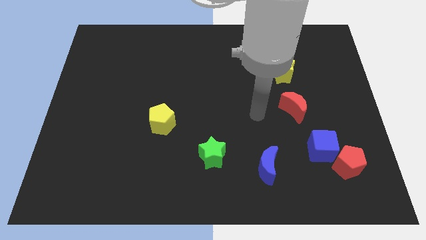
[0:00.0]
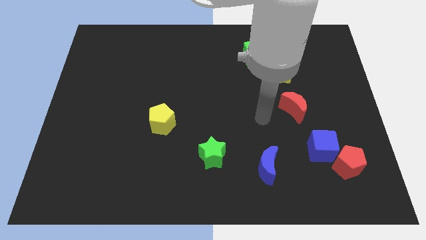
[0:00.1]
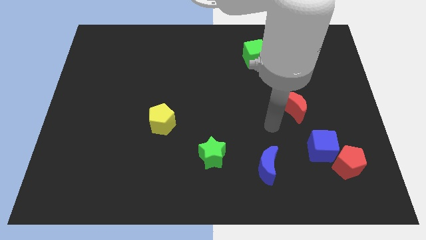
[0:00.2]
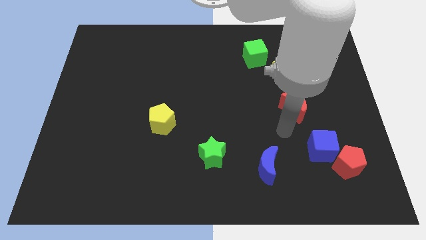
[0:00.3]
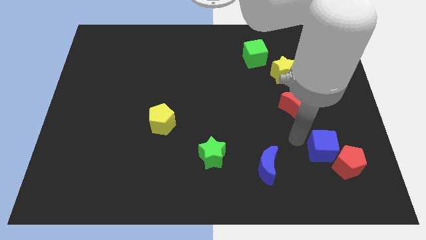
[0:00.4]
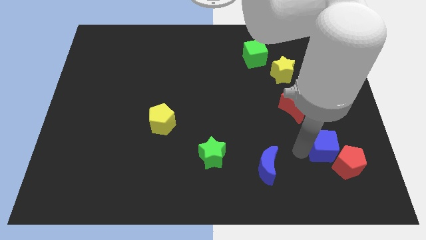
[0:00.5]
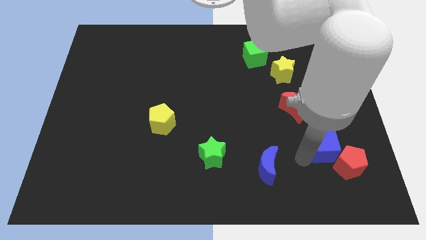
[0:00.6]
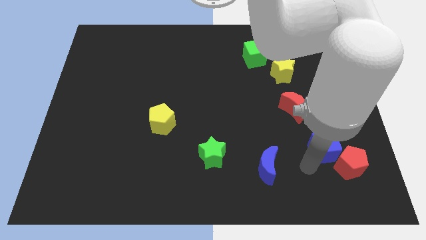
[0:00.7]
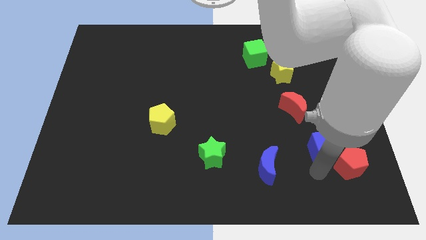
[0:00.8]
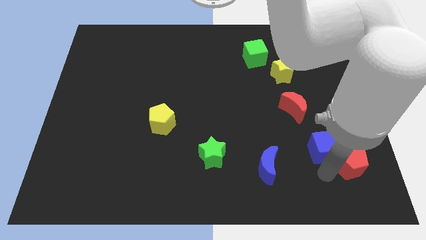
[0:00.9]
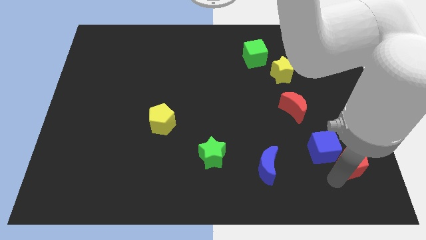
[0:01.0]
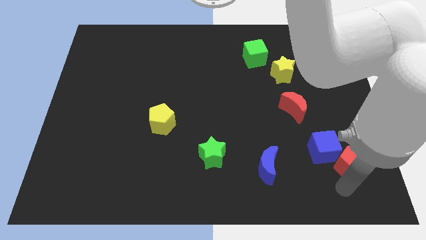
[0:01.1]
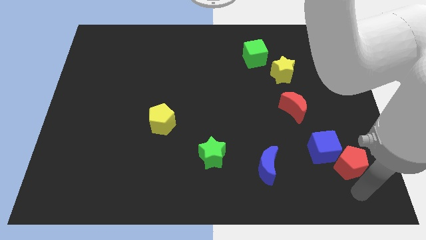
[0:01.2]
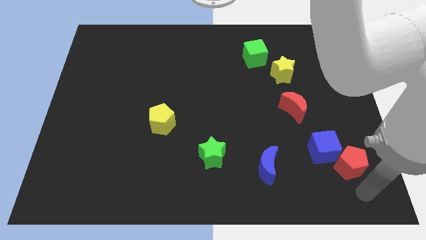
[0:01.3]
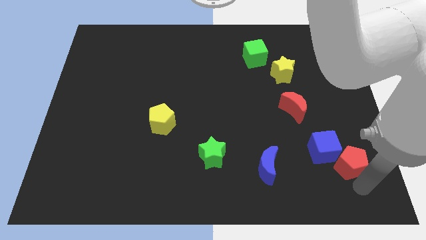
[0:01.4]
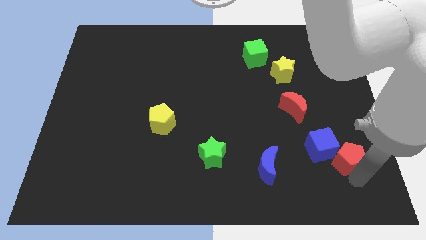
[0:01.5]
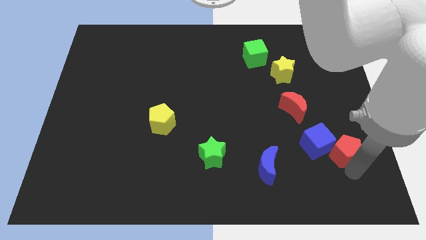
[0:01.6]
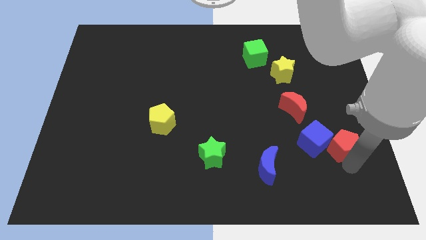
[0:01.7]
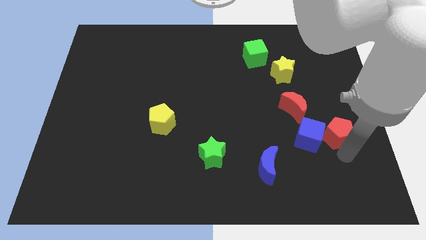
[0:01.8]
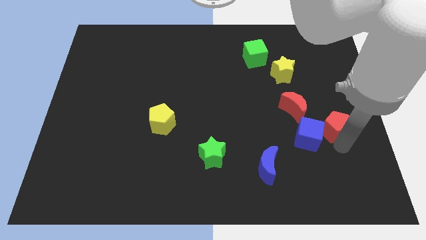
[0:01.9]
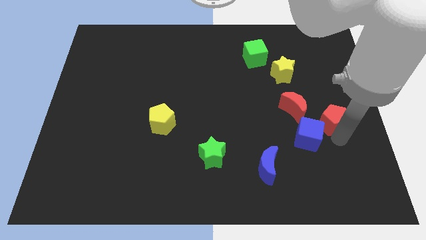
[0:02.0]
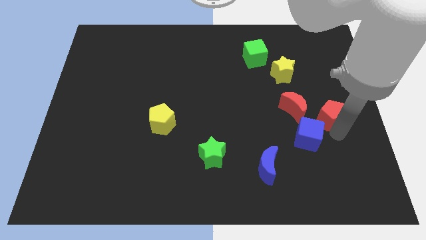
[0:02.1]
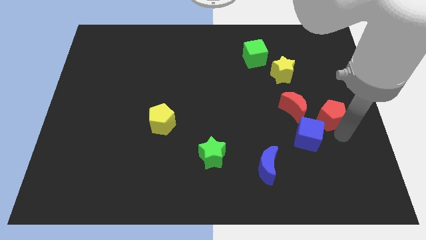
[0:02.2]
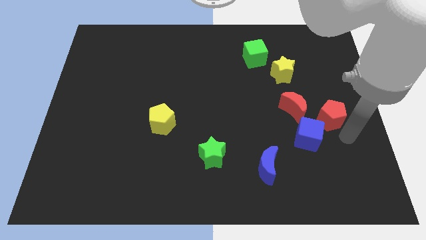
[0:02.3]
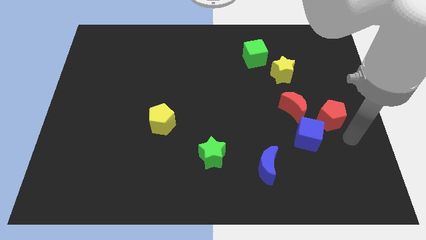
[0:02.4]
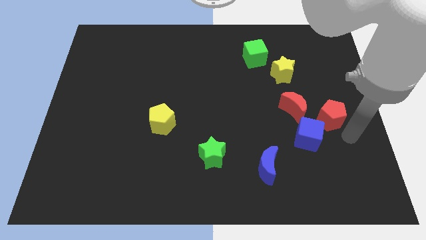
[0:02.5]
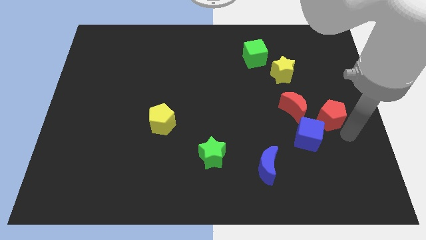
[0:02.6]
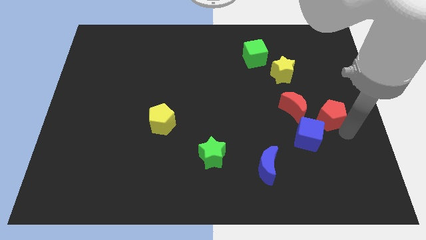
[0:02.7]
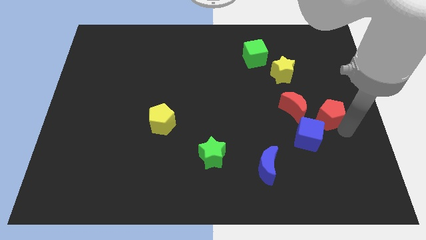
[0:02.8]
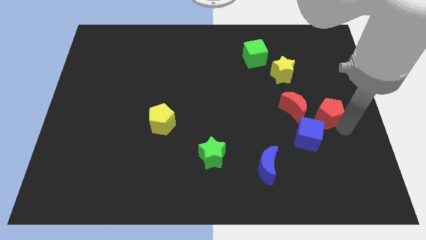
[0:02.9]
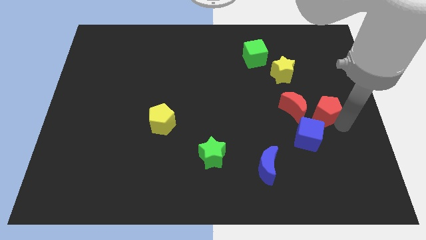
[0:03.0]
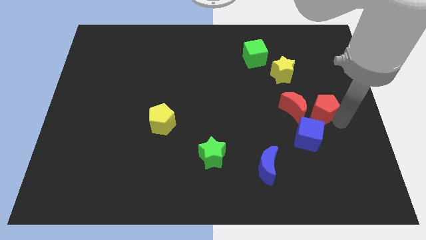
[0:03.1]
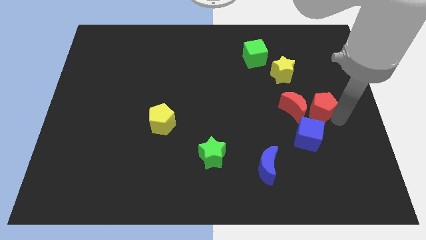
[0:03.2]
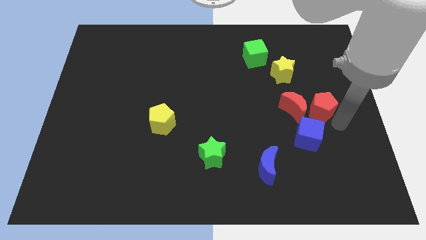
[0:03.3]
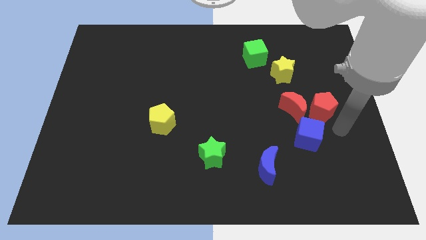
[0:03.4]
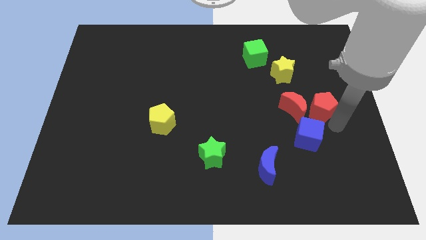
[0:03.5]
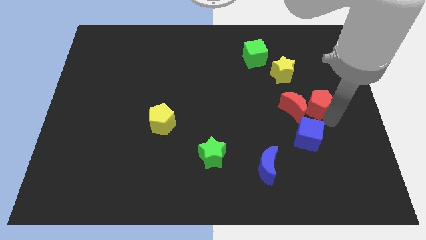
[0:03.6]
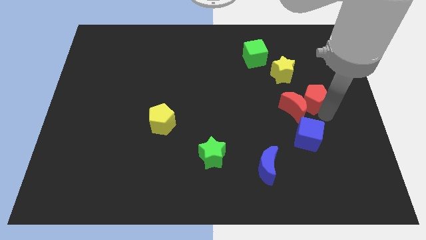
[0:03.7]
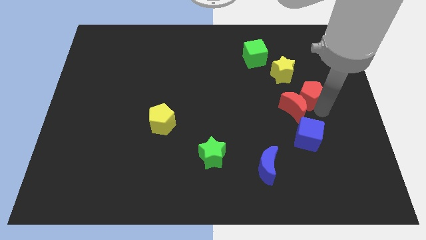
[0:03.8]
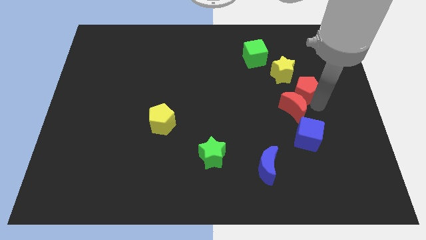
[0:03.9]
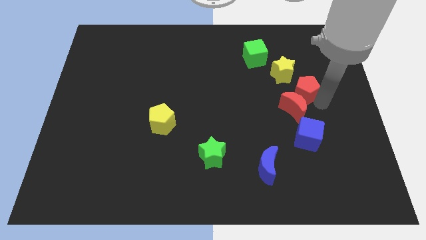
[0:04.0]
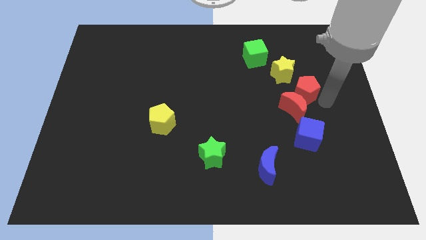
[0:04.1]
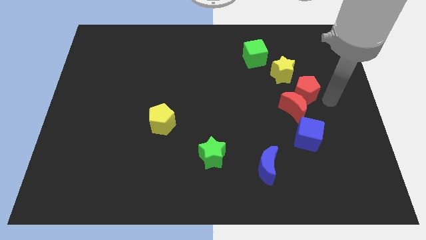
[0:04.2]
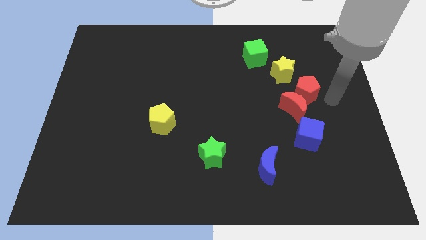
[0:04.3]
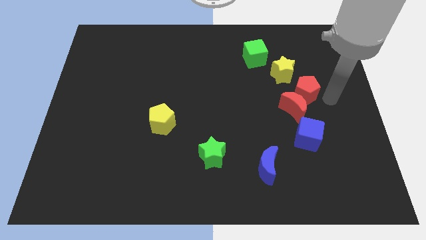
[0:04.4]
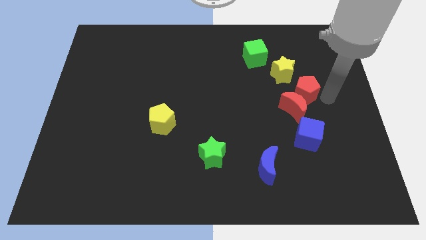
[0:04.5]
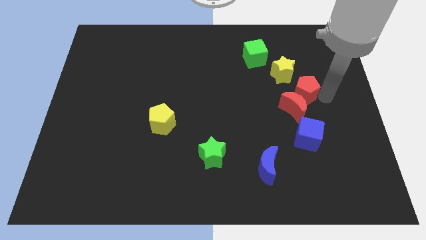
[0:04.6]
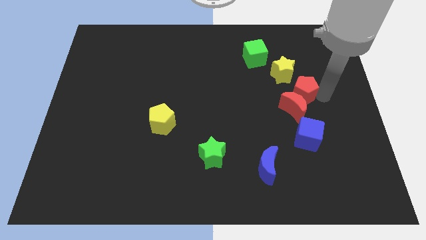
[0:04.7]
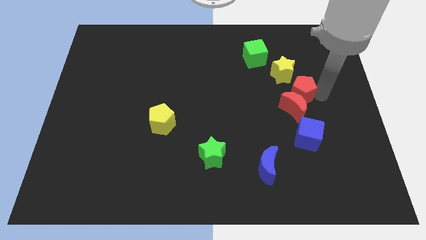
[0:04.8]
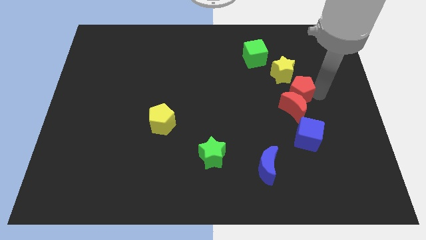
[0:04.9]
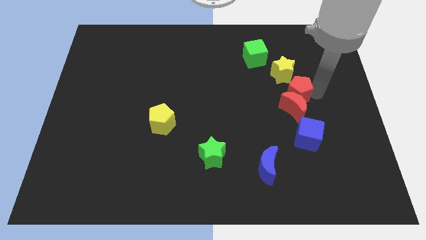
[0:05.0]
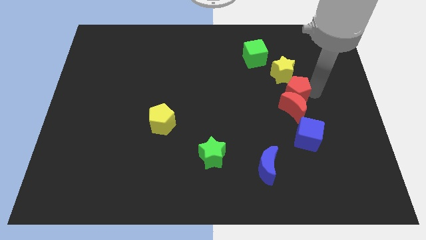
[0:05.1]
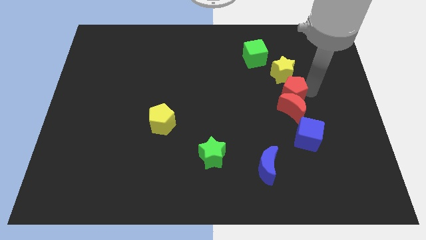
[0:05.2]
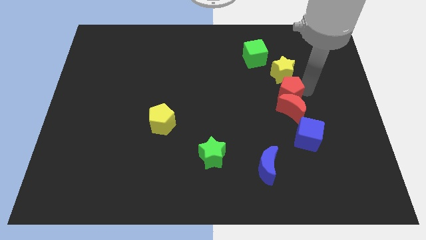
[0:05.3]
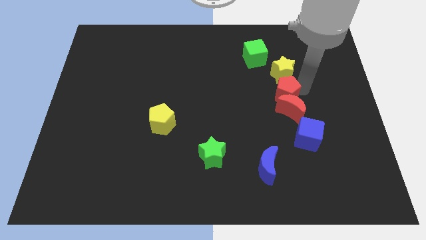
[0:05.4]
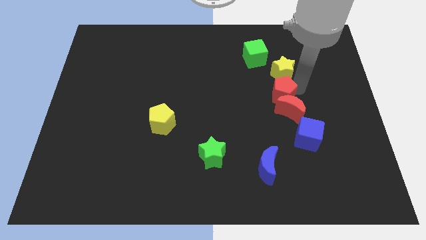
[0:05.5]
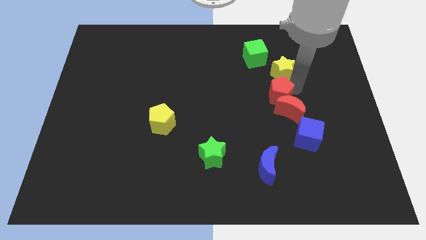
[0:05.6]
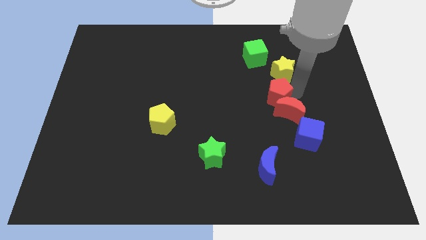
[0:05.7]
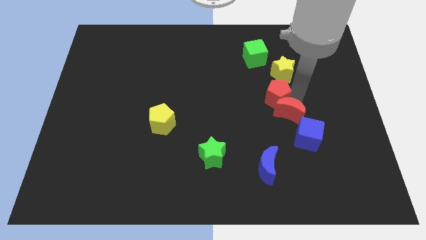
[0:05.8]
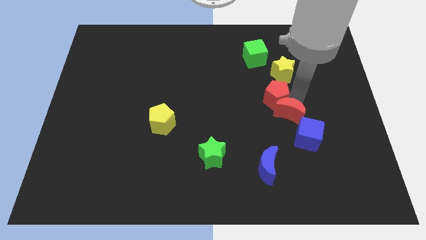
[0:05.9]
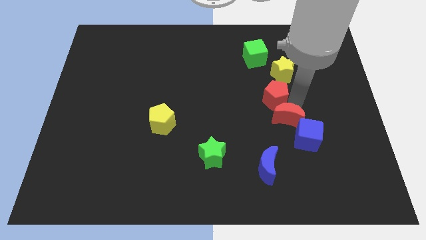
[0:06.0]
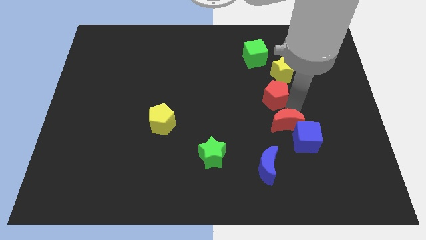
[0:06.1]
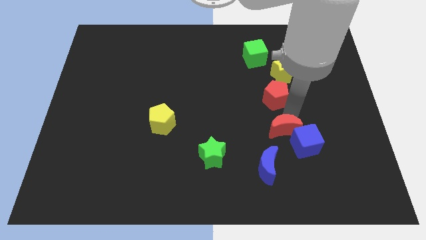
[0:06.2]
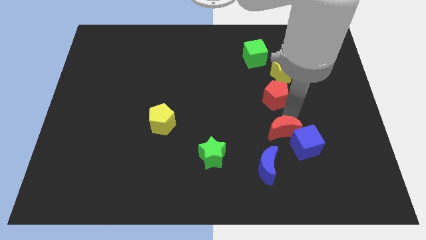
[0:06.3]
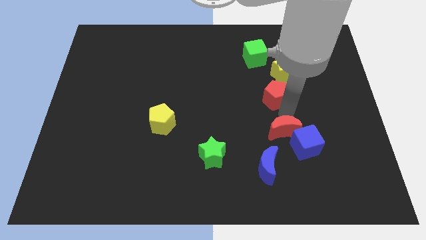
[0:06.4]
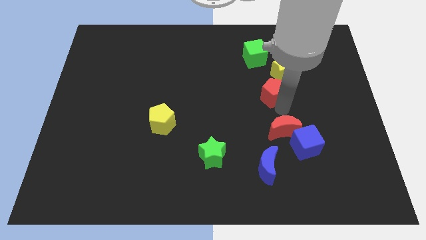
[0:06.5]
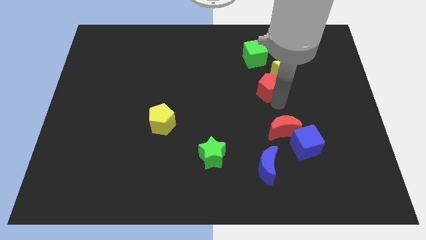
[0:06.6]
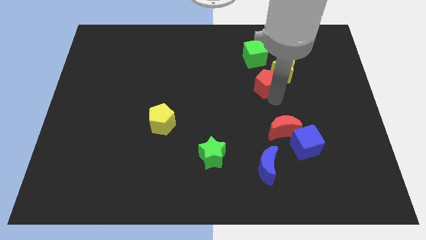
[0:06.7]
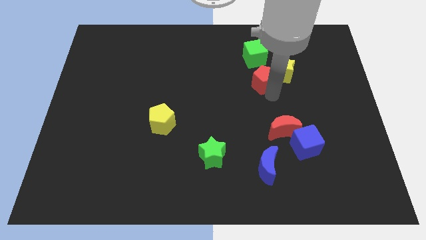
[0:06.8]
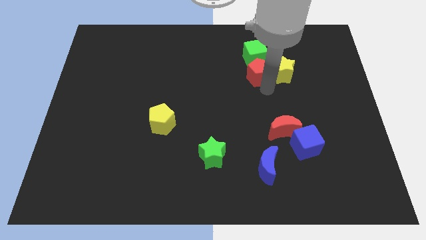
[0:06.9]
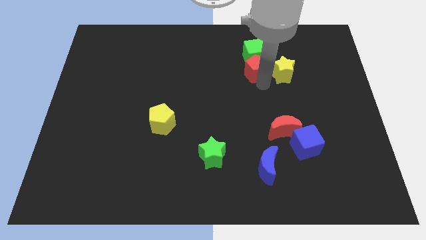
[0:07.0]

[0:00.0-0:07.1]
push the red pentagon to the green cube

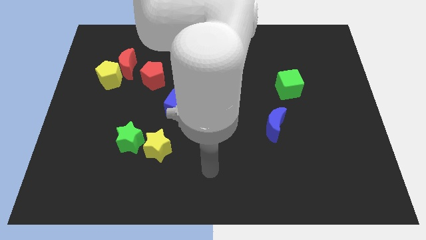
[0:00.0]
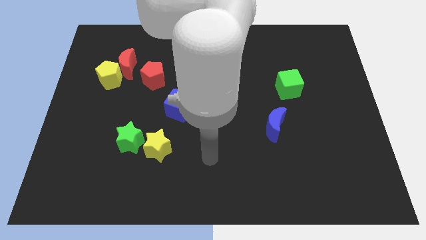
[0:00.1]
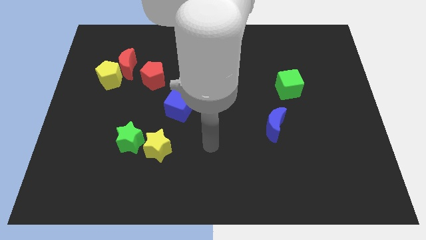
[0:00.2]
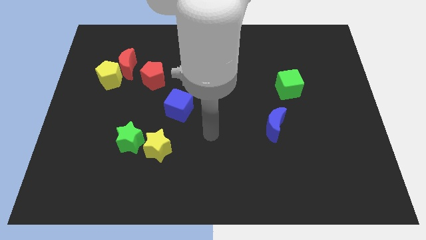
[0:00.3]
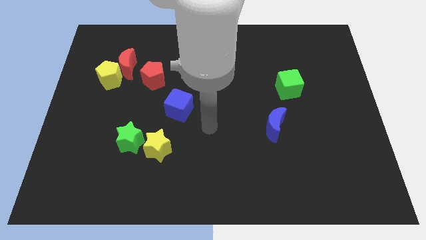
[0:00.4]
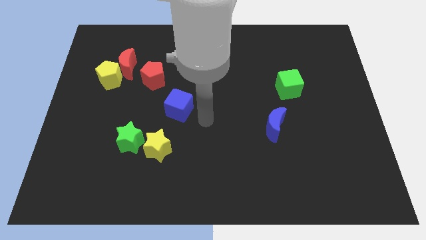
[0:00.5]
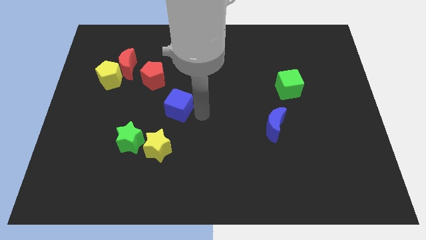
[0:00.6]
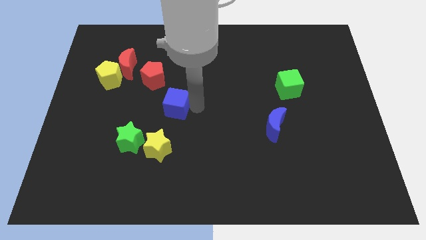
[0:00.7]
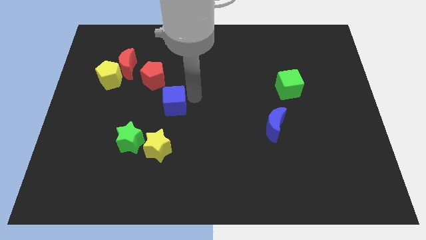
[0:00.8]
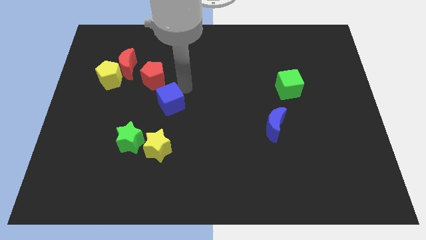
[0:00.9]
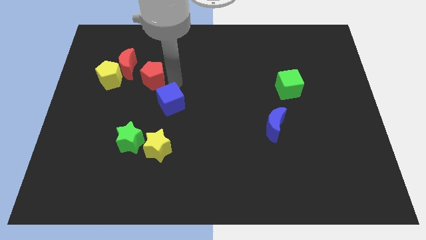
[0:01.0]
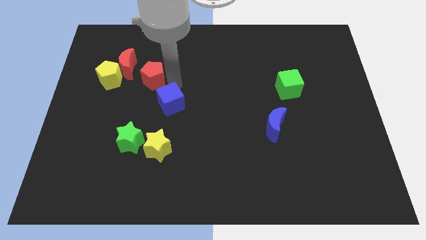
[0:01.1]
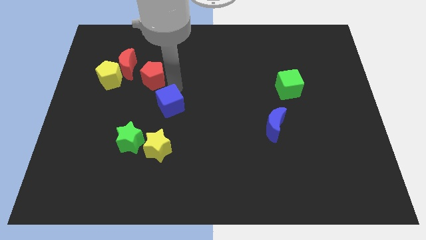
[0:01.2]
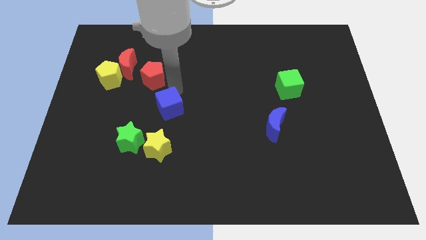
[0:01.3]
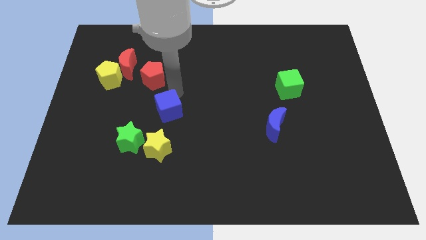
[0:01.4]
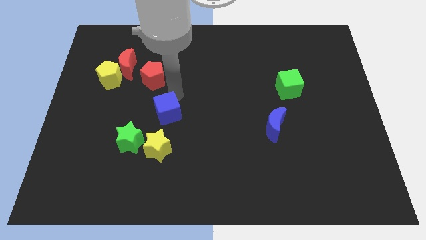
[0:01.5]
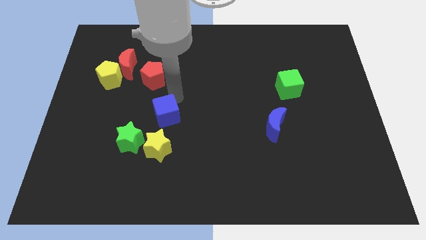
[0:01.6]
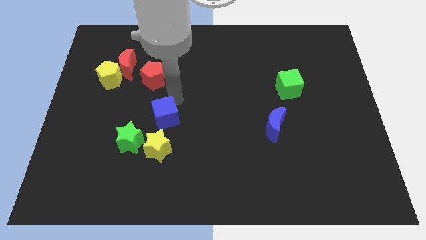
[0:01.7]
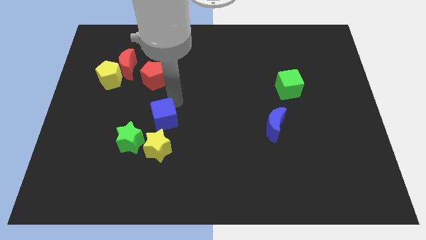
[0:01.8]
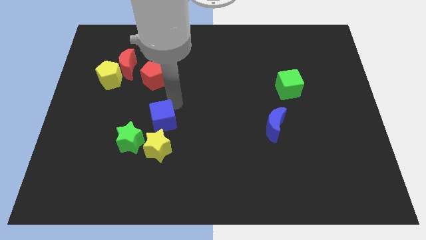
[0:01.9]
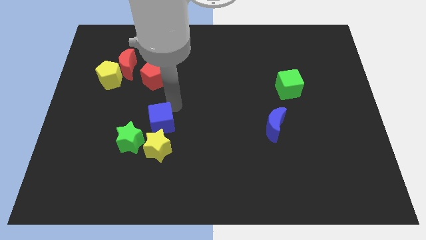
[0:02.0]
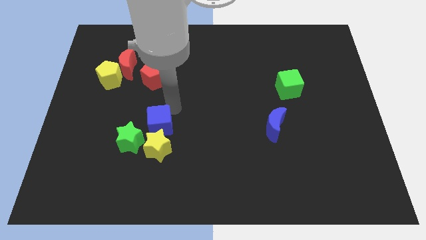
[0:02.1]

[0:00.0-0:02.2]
slide the blue cube close to the yellow star
